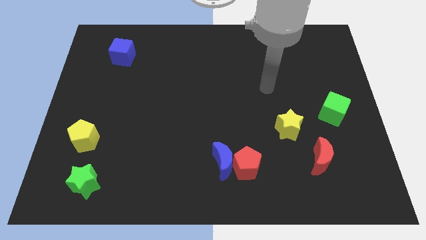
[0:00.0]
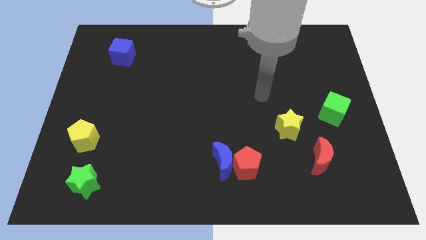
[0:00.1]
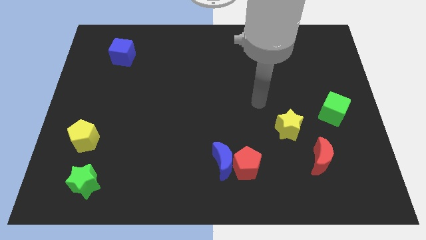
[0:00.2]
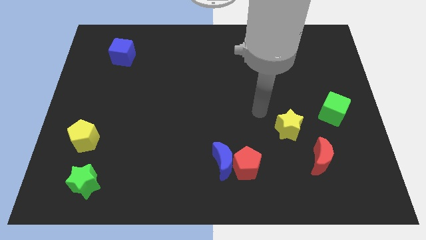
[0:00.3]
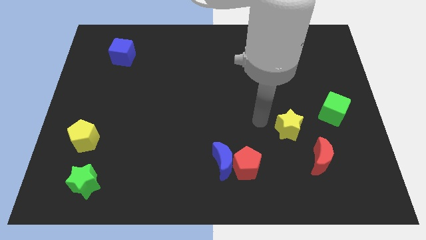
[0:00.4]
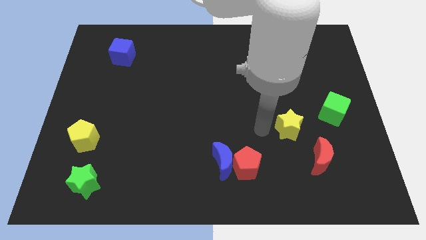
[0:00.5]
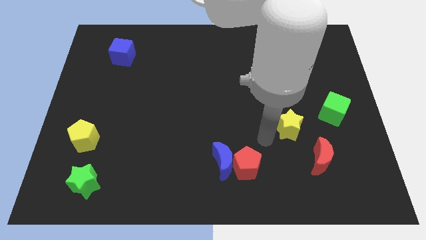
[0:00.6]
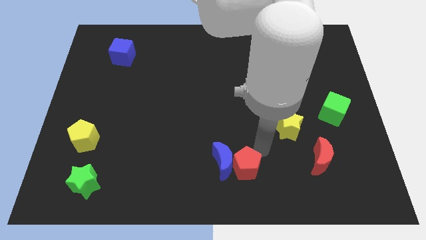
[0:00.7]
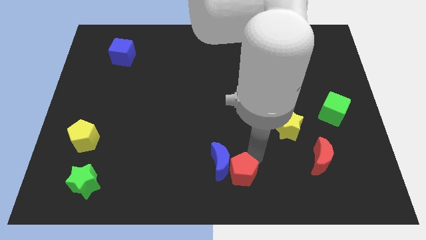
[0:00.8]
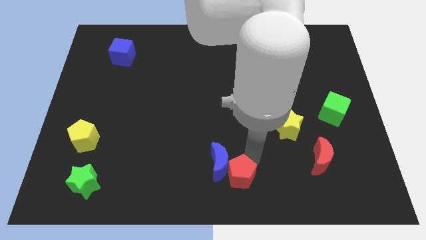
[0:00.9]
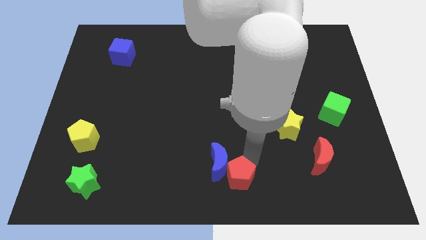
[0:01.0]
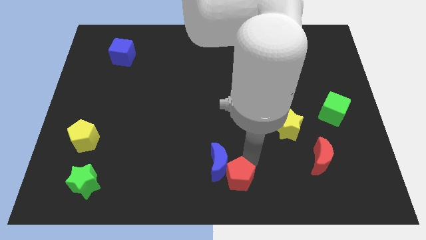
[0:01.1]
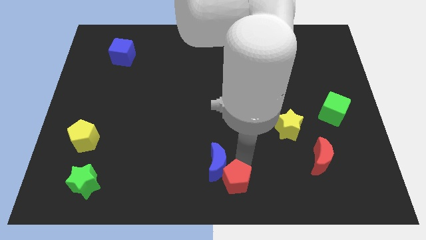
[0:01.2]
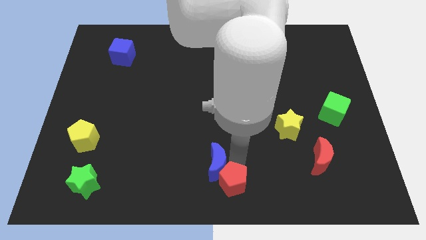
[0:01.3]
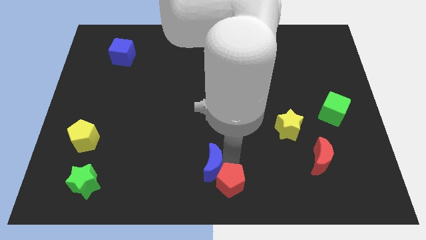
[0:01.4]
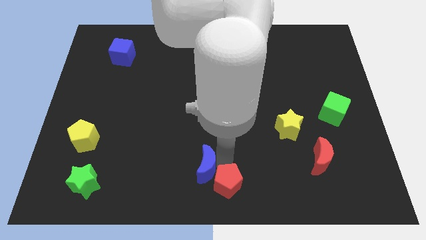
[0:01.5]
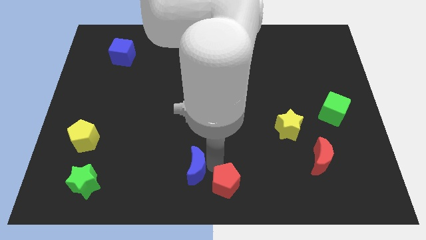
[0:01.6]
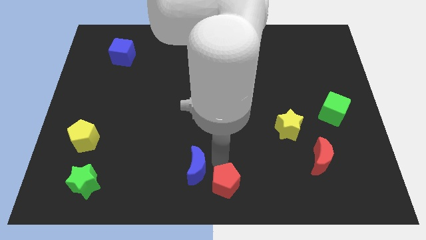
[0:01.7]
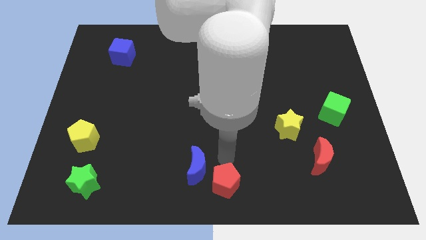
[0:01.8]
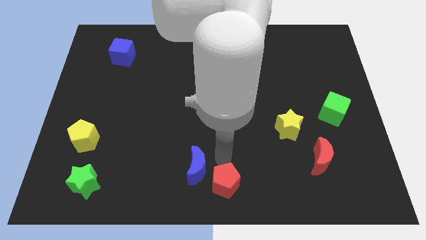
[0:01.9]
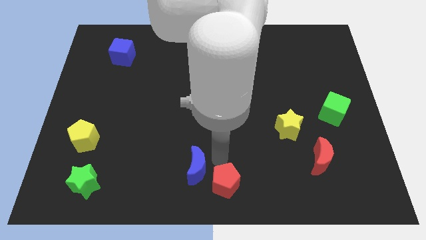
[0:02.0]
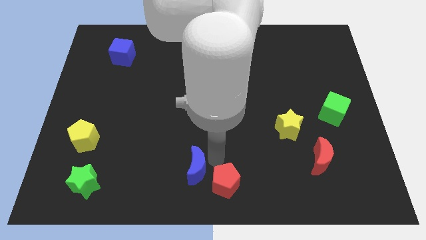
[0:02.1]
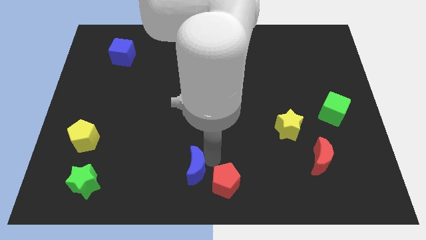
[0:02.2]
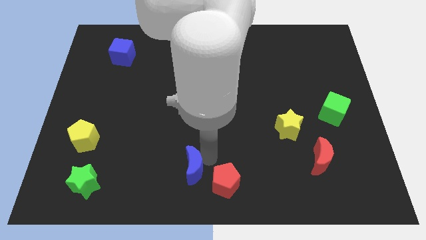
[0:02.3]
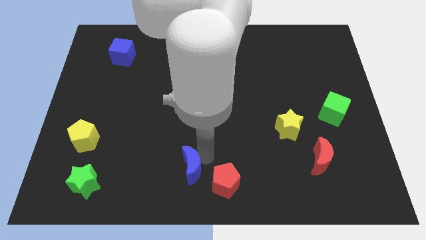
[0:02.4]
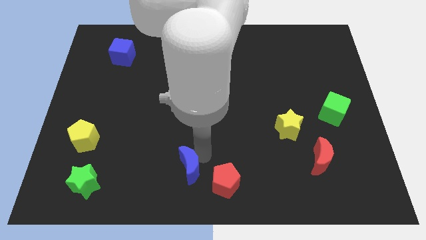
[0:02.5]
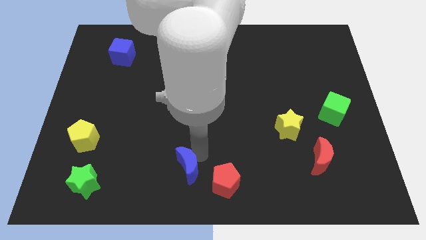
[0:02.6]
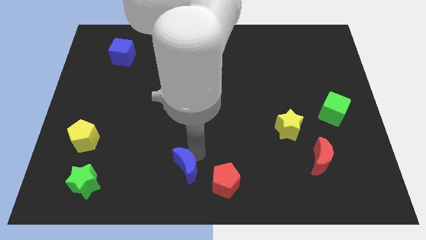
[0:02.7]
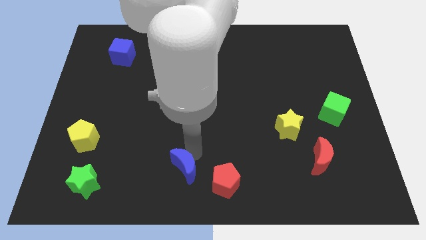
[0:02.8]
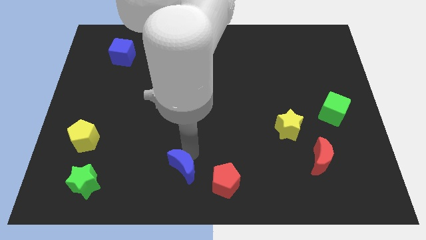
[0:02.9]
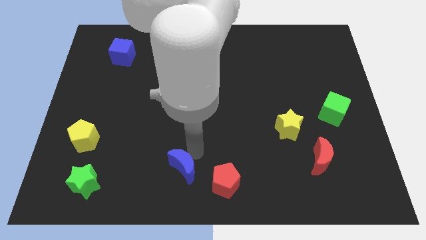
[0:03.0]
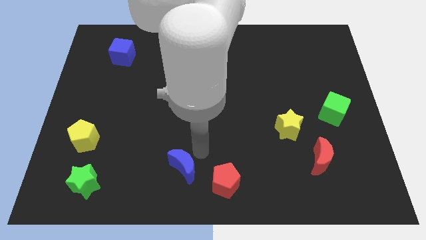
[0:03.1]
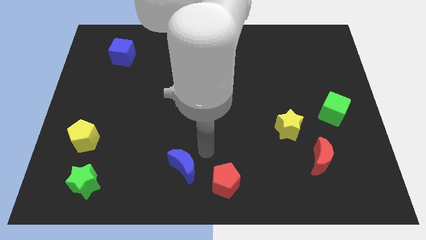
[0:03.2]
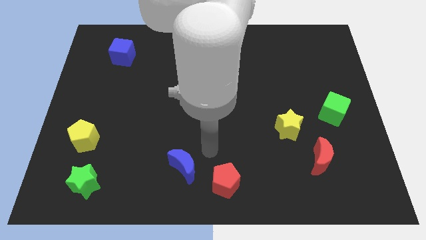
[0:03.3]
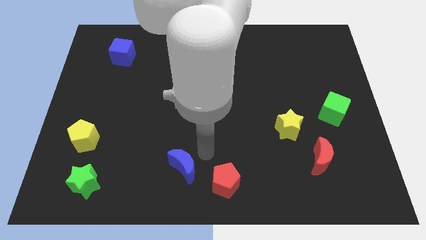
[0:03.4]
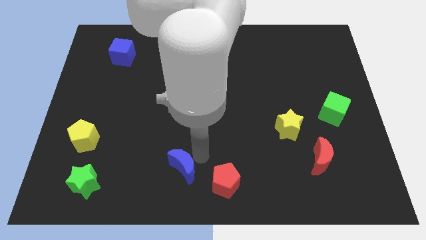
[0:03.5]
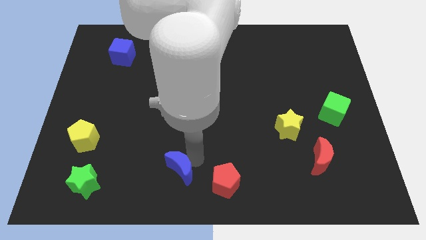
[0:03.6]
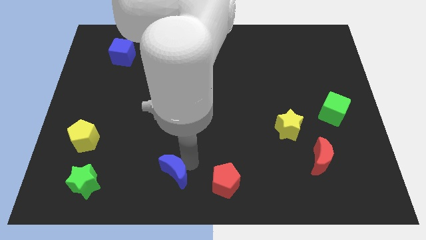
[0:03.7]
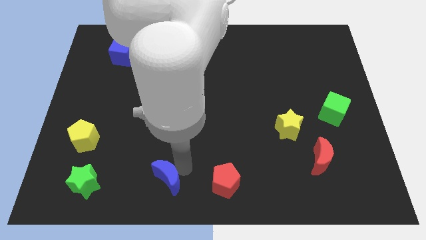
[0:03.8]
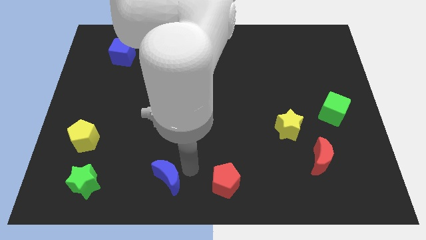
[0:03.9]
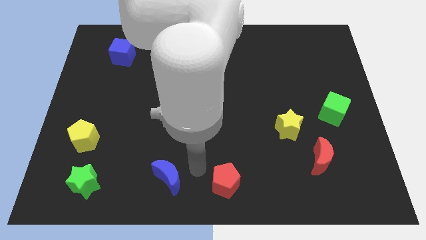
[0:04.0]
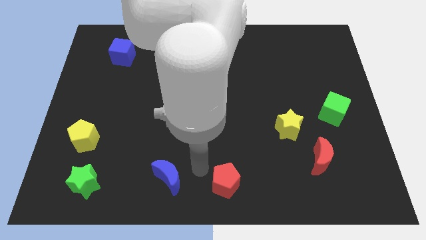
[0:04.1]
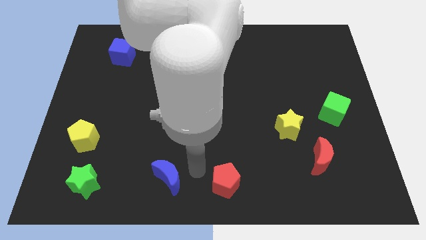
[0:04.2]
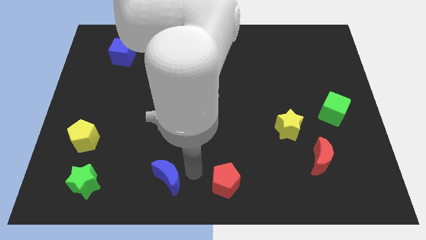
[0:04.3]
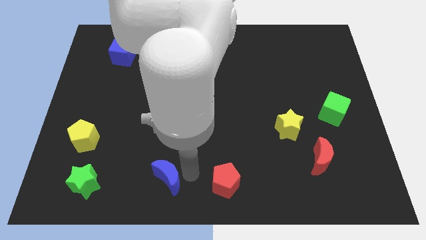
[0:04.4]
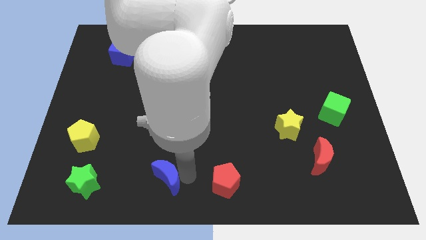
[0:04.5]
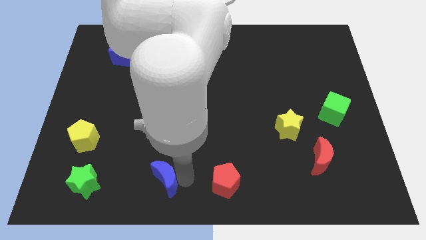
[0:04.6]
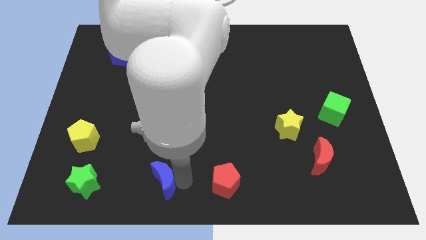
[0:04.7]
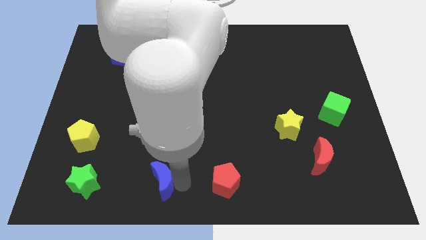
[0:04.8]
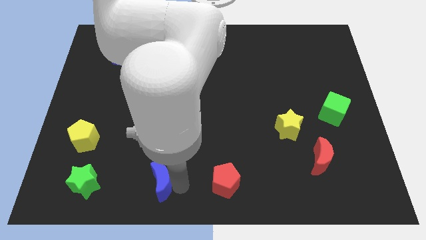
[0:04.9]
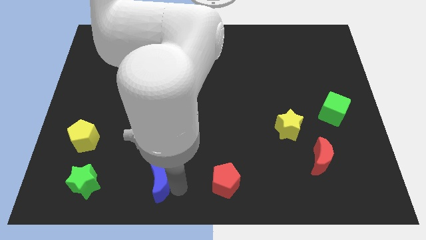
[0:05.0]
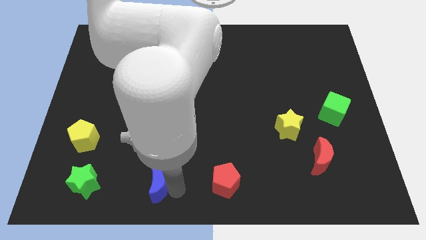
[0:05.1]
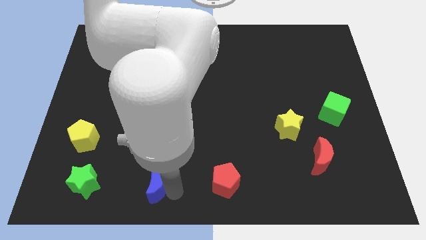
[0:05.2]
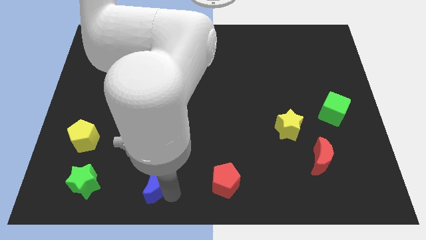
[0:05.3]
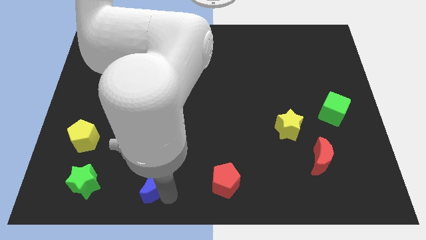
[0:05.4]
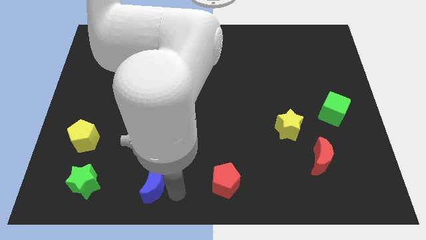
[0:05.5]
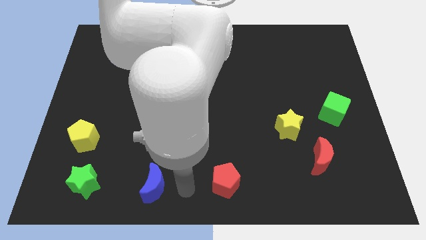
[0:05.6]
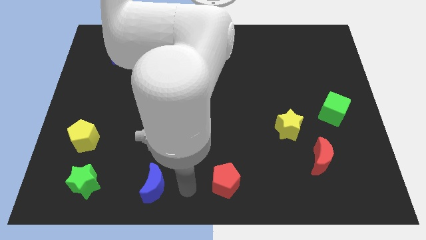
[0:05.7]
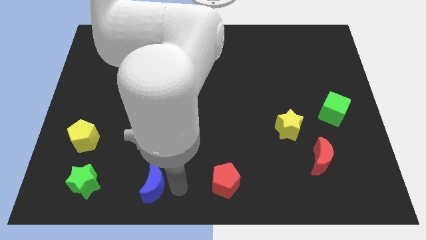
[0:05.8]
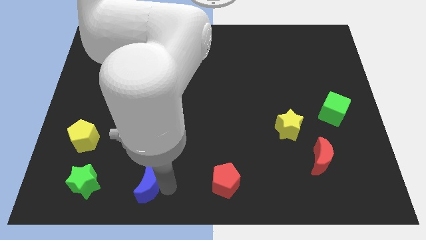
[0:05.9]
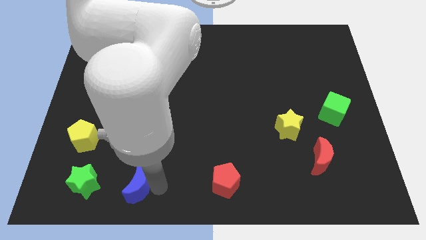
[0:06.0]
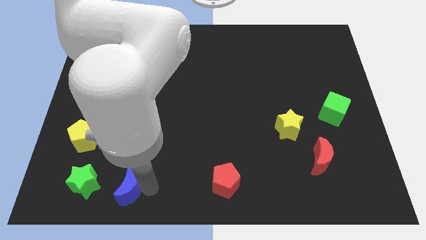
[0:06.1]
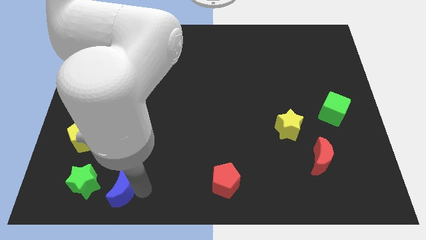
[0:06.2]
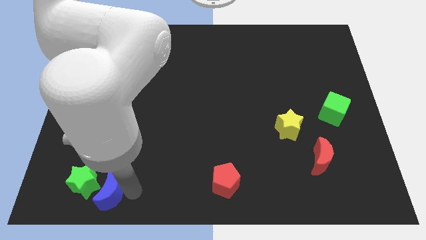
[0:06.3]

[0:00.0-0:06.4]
move the blue moon next to the green star

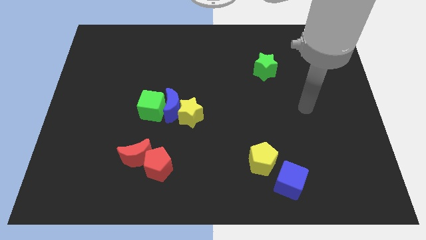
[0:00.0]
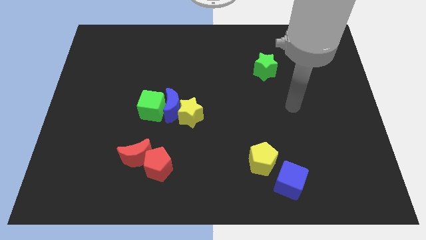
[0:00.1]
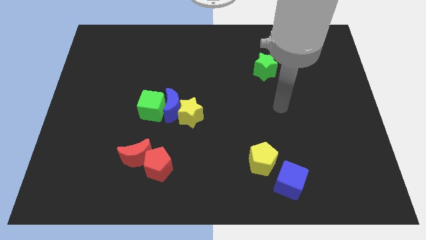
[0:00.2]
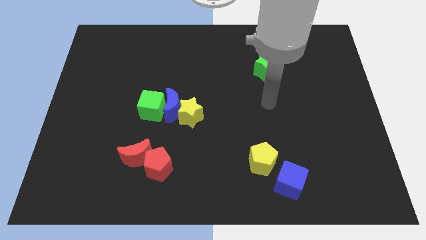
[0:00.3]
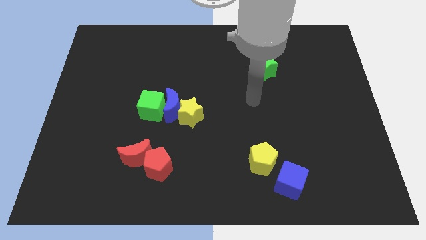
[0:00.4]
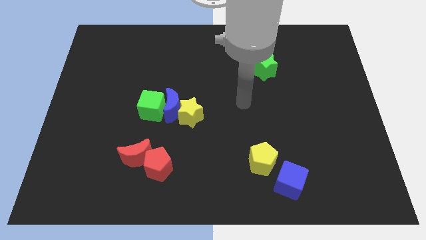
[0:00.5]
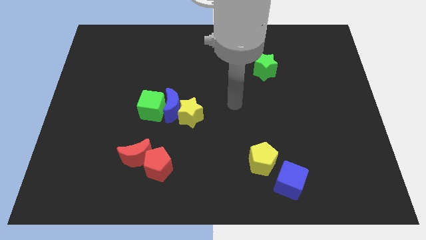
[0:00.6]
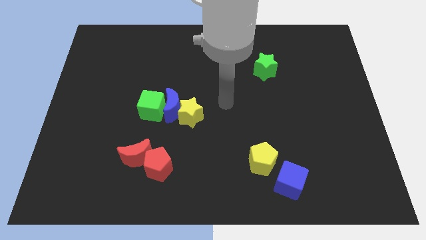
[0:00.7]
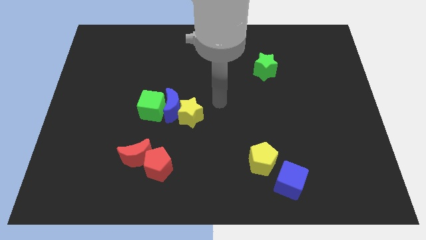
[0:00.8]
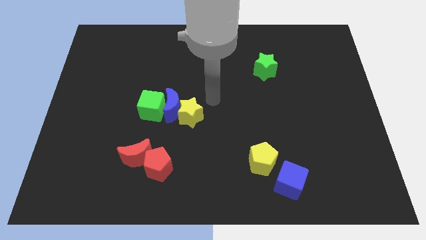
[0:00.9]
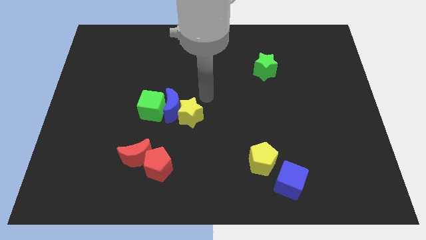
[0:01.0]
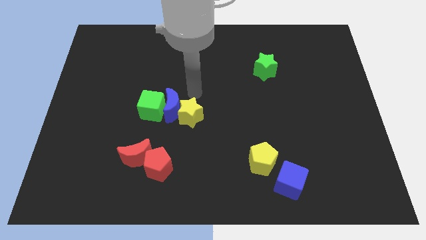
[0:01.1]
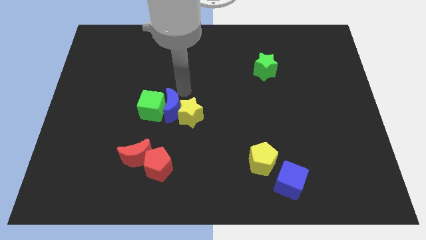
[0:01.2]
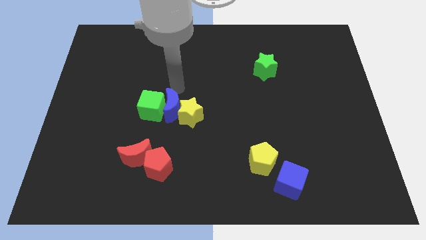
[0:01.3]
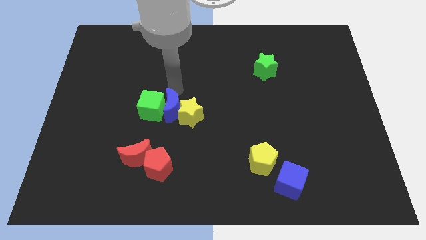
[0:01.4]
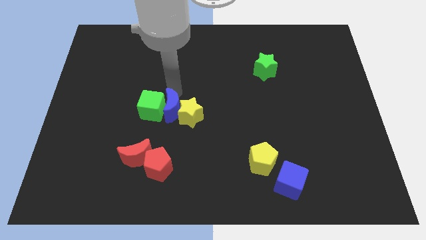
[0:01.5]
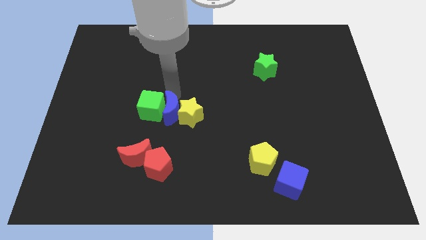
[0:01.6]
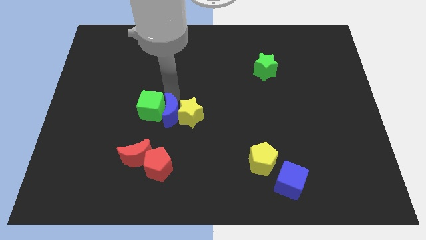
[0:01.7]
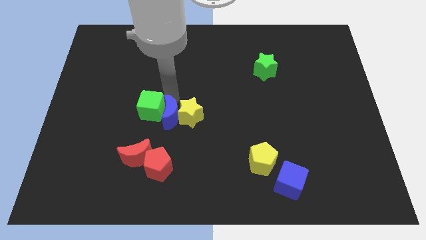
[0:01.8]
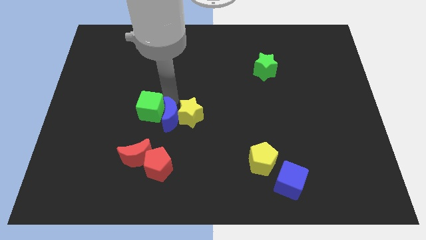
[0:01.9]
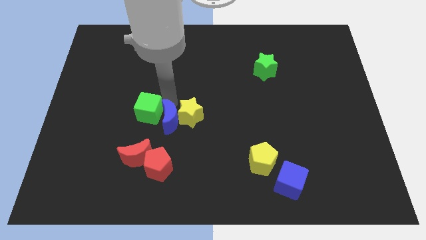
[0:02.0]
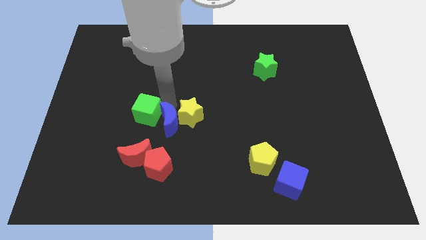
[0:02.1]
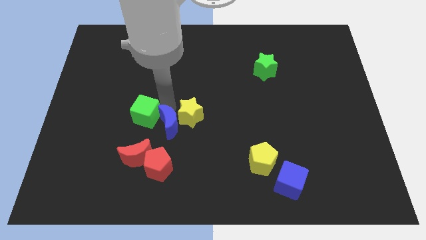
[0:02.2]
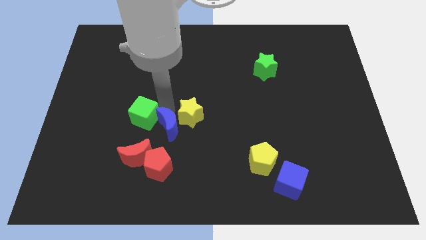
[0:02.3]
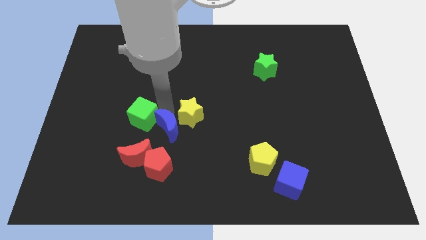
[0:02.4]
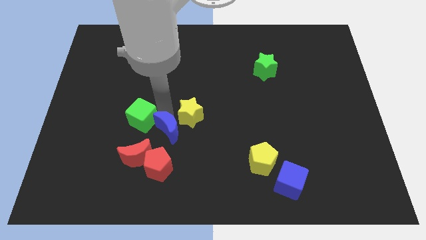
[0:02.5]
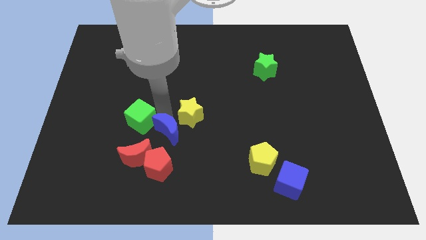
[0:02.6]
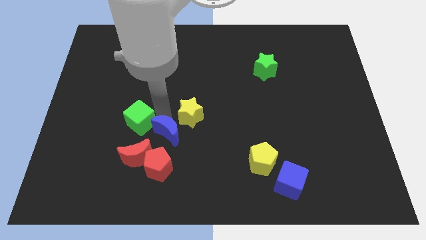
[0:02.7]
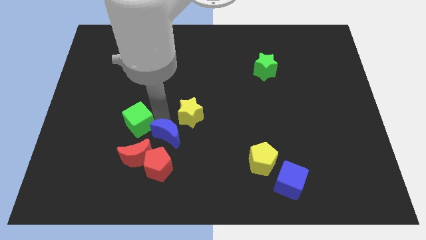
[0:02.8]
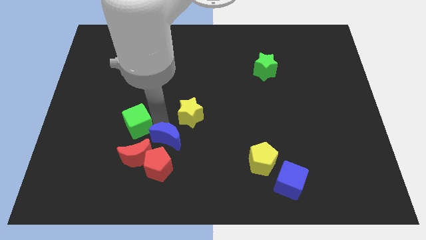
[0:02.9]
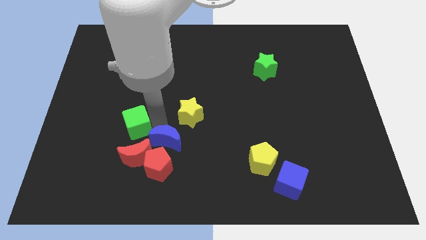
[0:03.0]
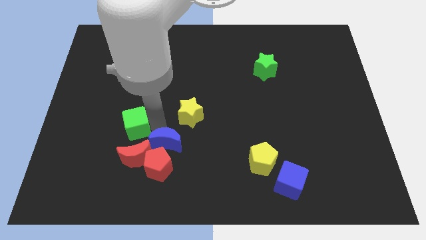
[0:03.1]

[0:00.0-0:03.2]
slide the blue moon close to the red pentagon
